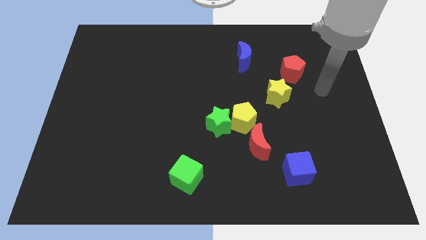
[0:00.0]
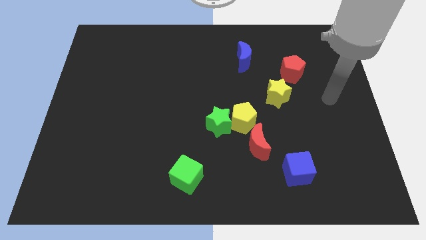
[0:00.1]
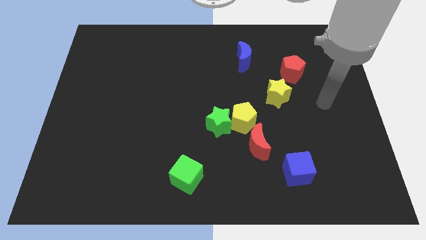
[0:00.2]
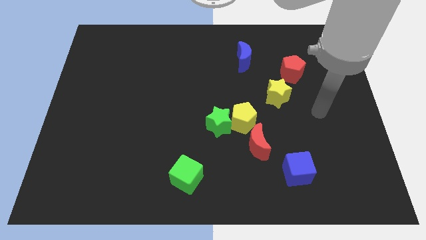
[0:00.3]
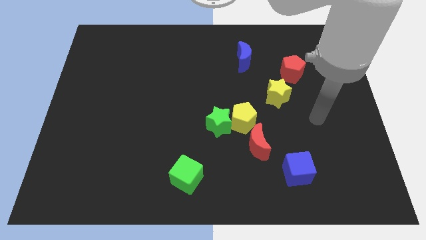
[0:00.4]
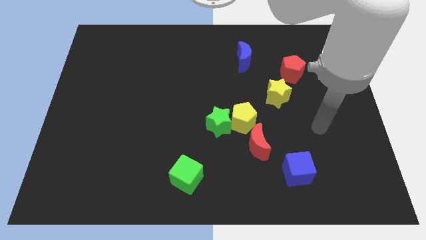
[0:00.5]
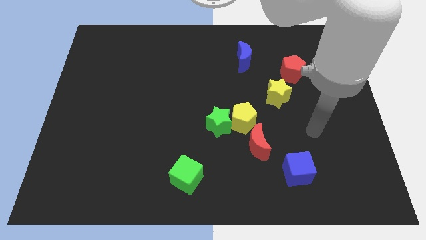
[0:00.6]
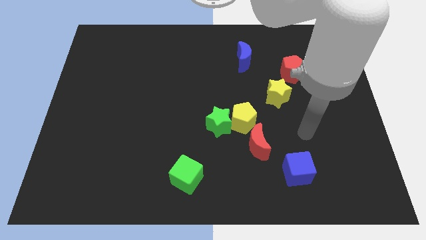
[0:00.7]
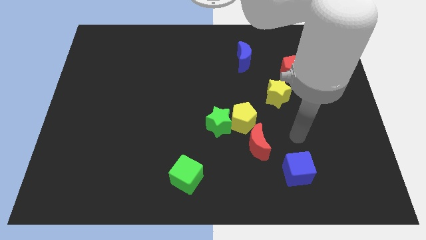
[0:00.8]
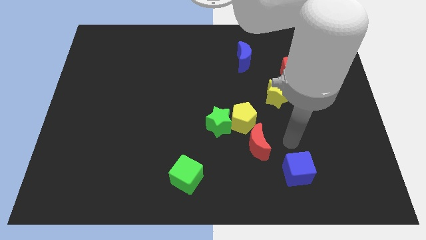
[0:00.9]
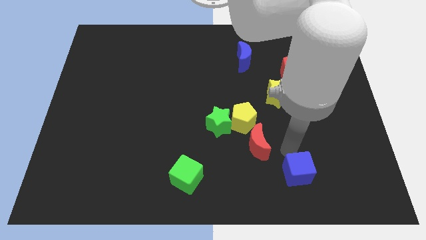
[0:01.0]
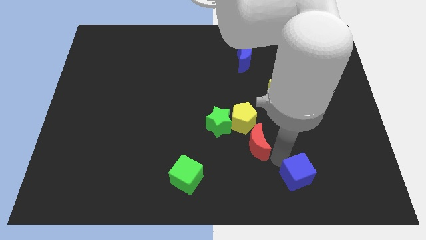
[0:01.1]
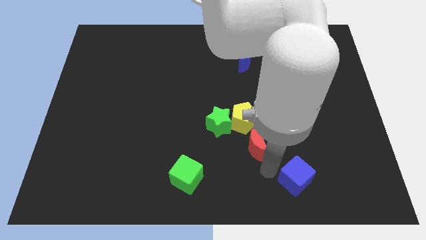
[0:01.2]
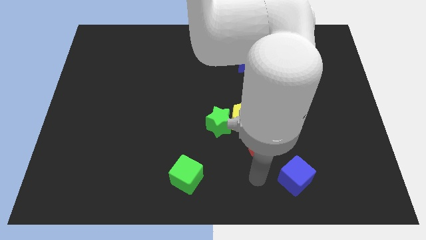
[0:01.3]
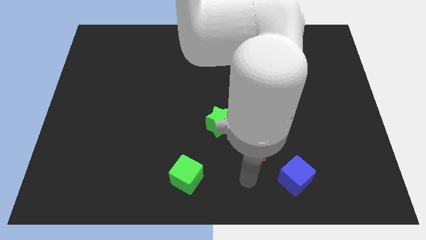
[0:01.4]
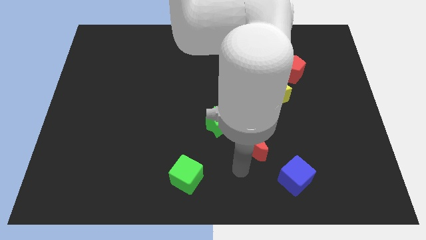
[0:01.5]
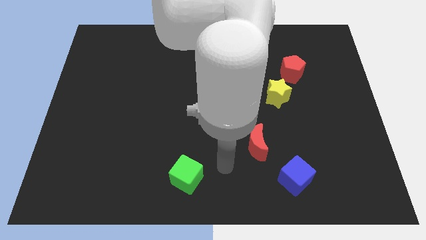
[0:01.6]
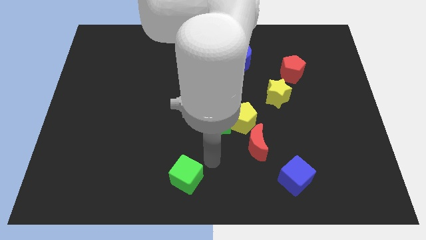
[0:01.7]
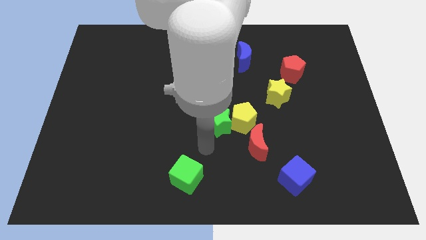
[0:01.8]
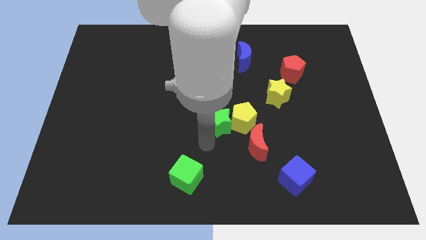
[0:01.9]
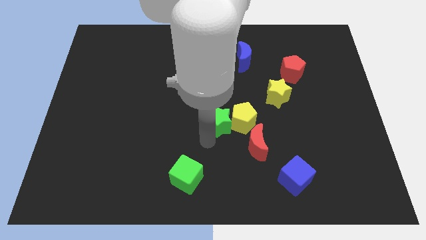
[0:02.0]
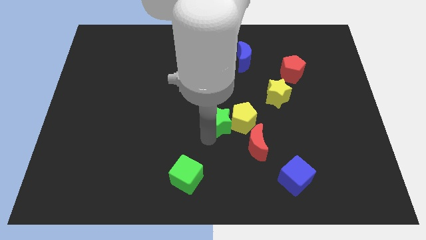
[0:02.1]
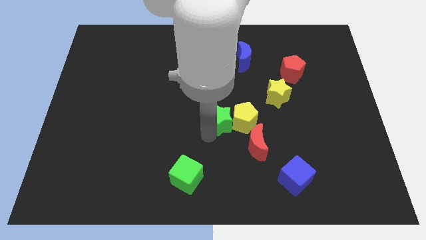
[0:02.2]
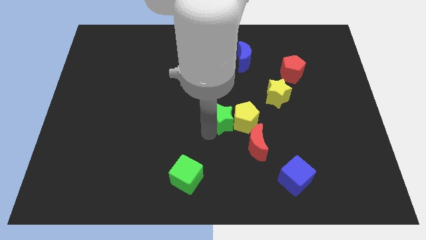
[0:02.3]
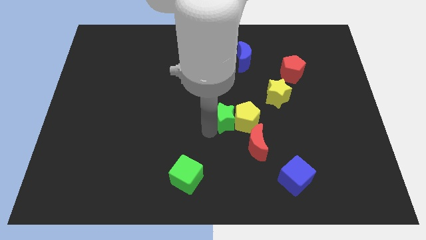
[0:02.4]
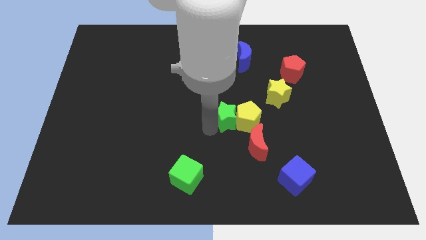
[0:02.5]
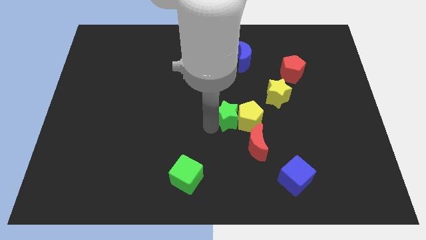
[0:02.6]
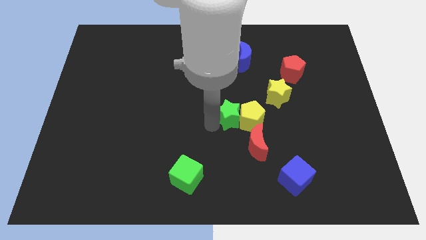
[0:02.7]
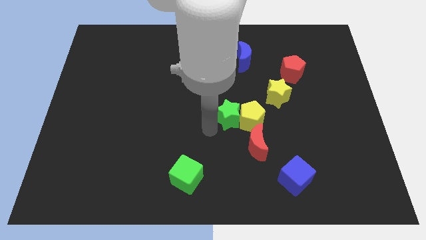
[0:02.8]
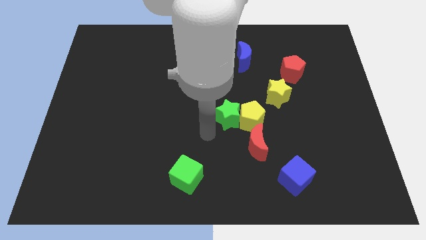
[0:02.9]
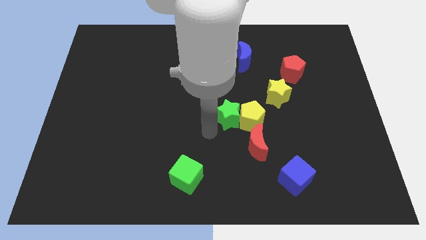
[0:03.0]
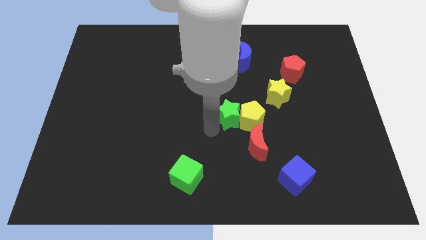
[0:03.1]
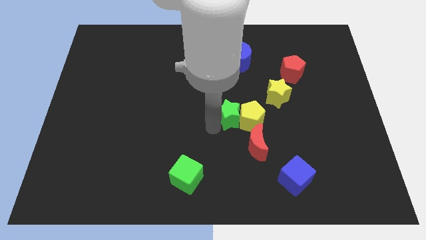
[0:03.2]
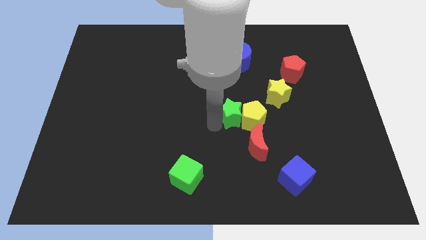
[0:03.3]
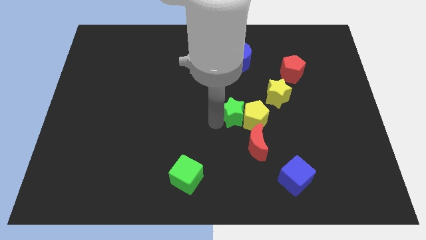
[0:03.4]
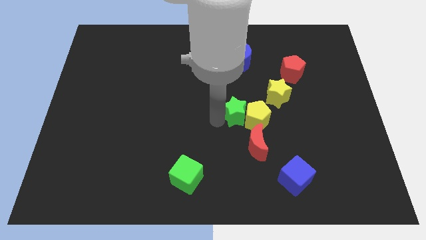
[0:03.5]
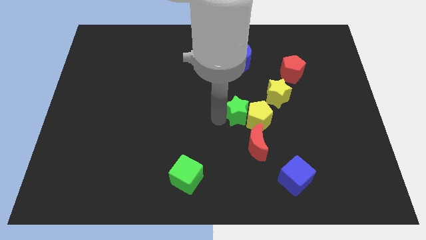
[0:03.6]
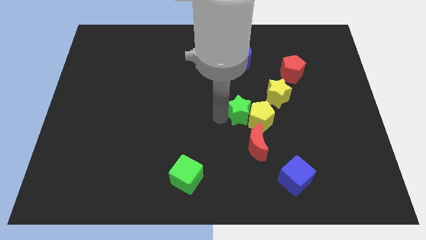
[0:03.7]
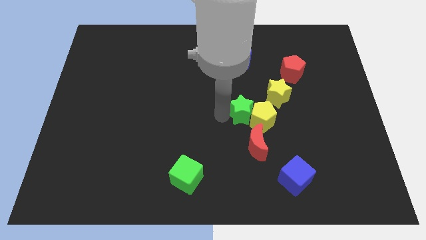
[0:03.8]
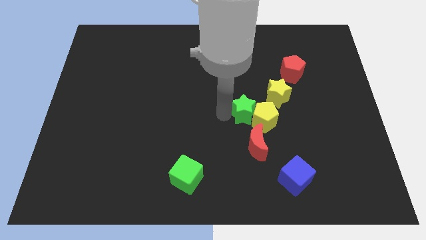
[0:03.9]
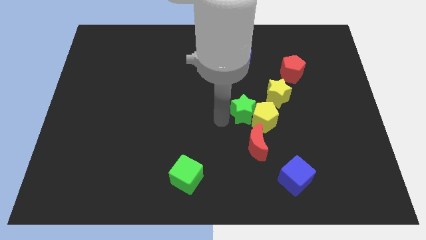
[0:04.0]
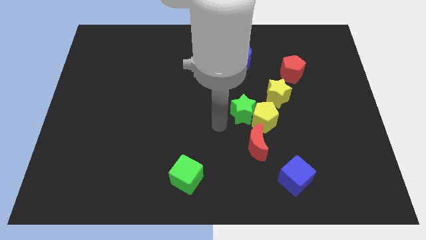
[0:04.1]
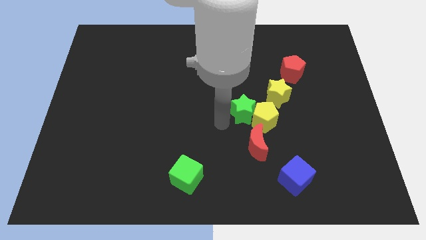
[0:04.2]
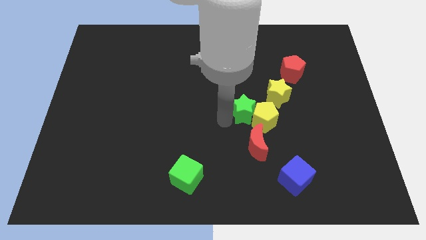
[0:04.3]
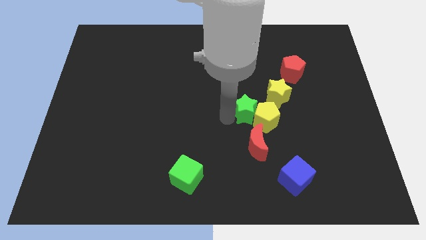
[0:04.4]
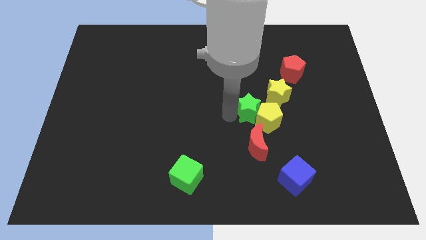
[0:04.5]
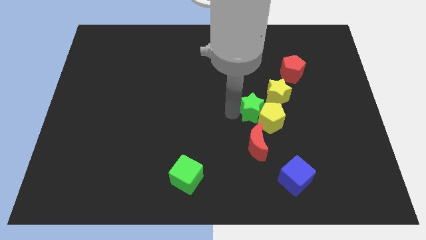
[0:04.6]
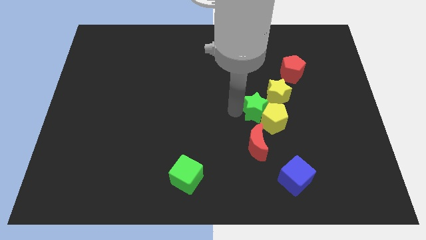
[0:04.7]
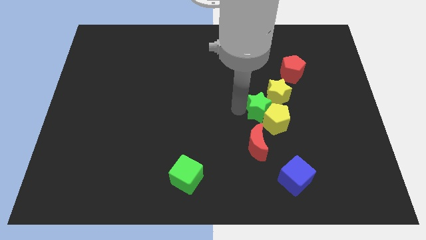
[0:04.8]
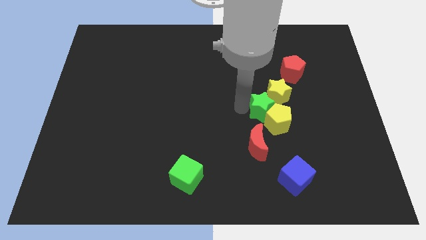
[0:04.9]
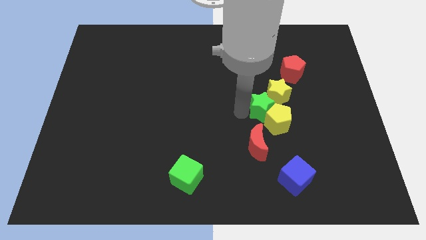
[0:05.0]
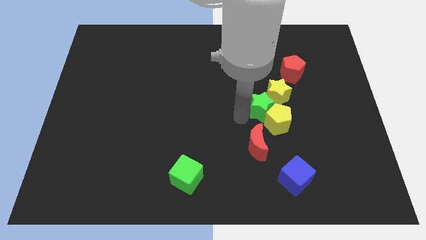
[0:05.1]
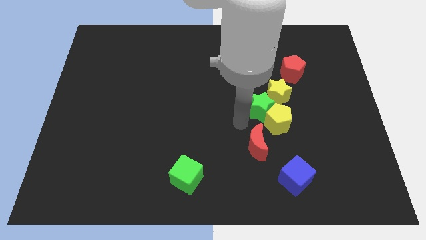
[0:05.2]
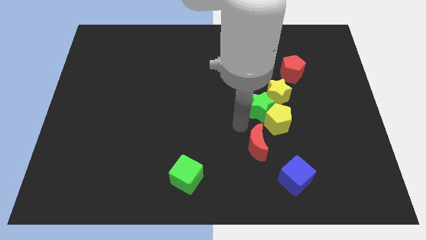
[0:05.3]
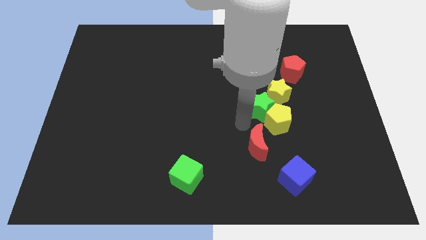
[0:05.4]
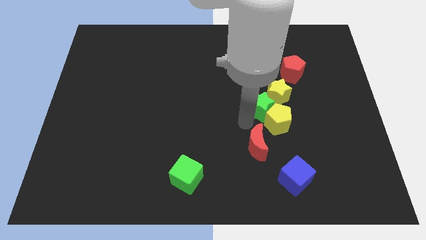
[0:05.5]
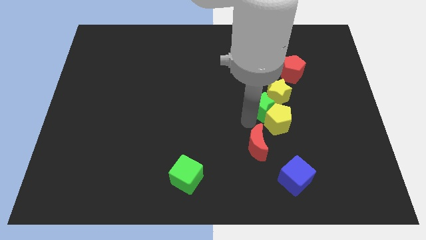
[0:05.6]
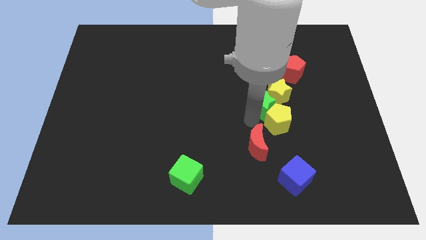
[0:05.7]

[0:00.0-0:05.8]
slide the green star towards the yellow star

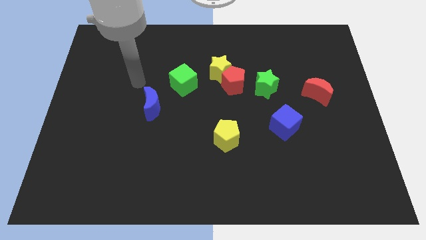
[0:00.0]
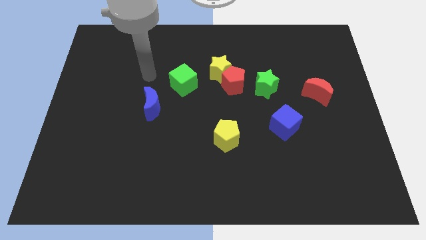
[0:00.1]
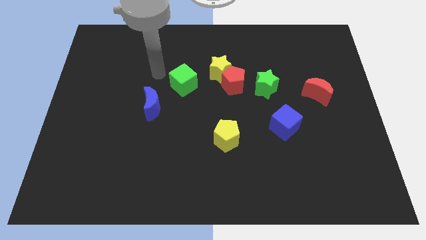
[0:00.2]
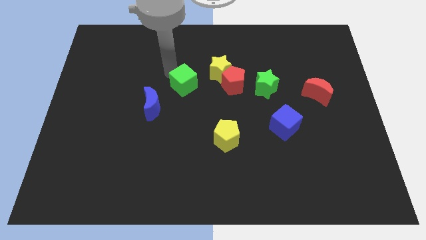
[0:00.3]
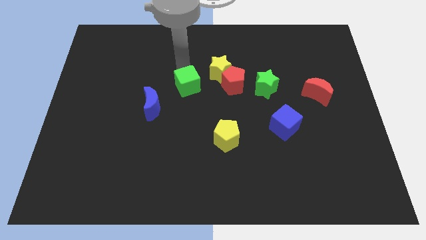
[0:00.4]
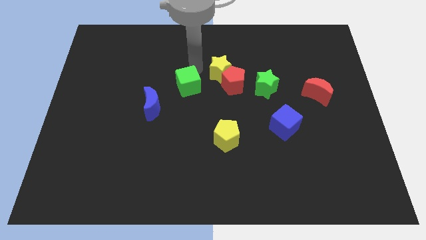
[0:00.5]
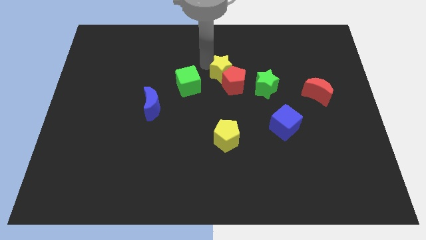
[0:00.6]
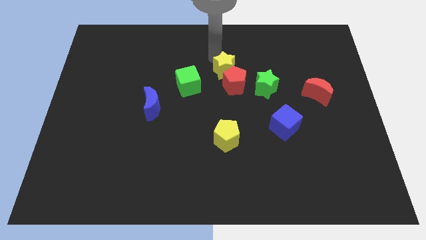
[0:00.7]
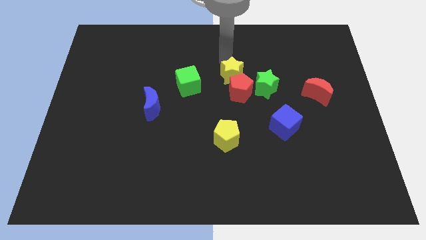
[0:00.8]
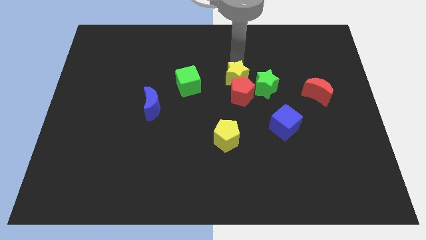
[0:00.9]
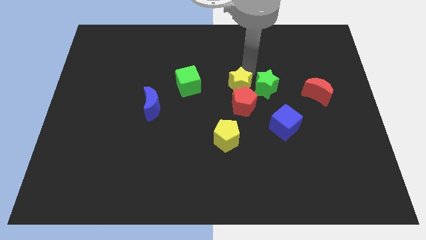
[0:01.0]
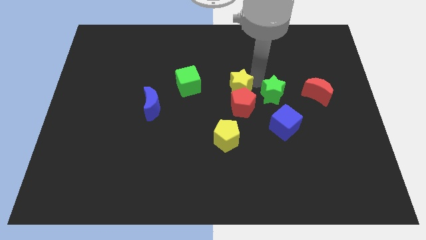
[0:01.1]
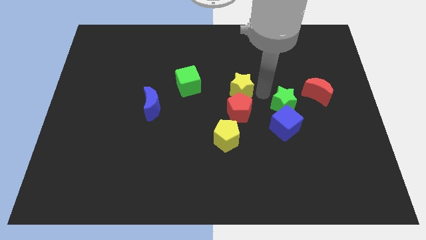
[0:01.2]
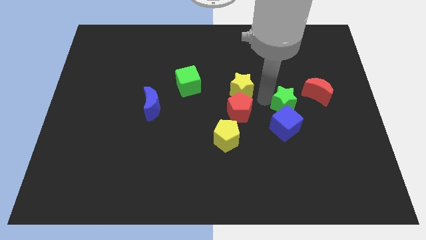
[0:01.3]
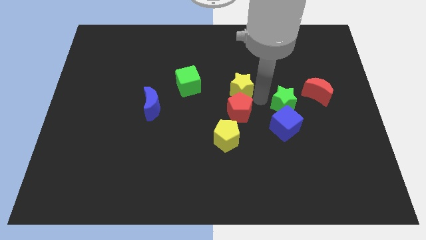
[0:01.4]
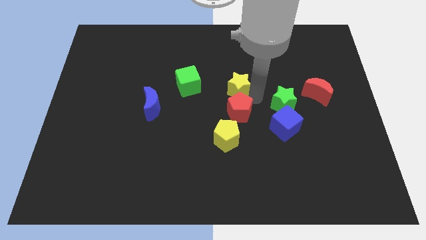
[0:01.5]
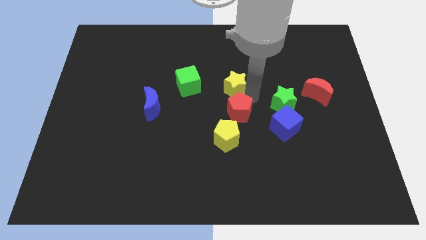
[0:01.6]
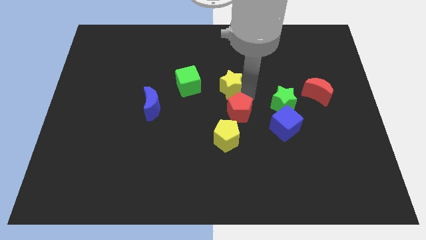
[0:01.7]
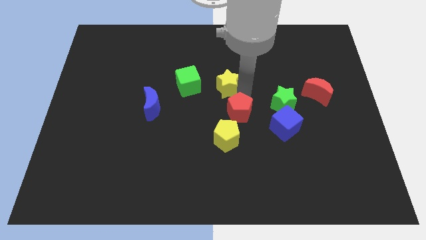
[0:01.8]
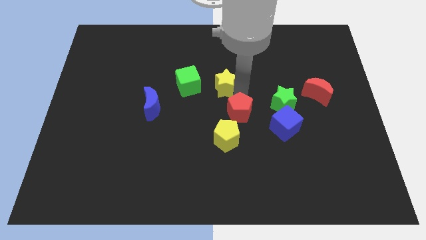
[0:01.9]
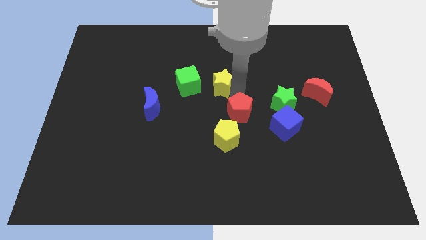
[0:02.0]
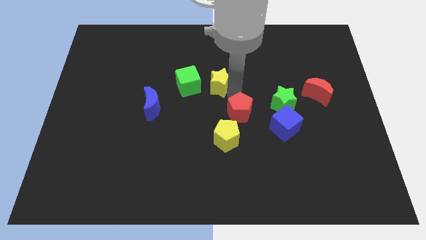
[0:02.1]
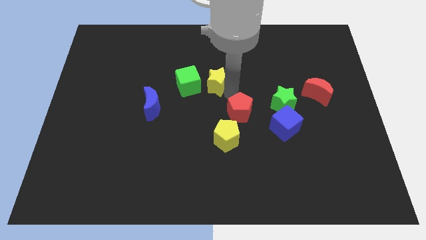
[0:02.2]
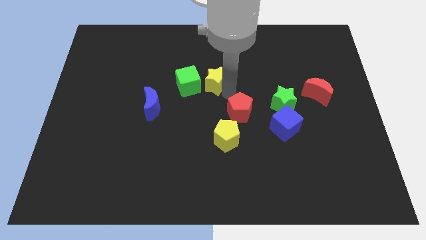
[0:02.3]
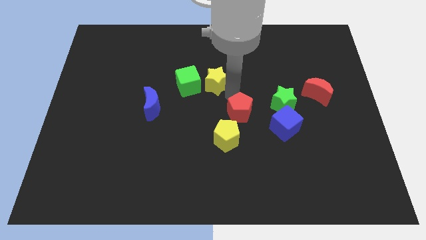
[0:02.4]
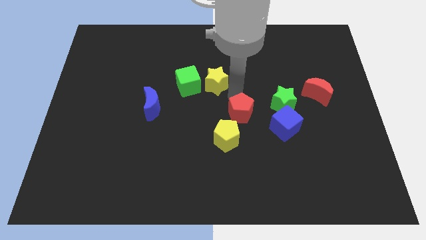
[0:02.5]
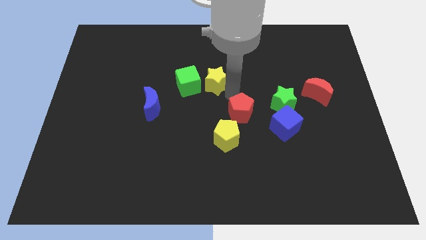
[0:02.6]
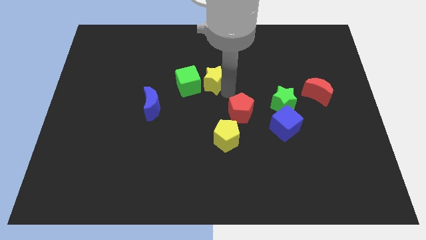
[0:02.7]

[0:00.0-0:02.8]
move the yellow star to the green cube
